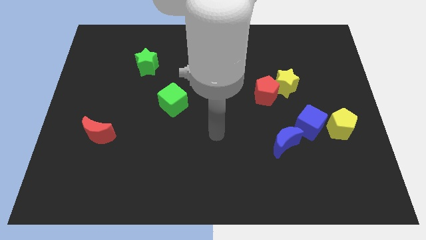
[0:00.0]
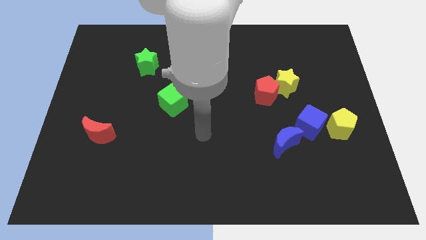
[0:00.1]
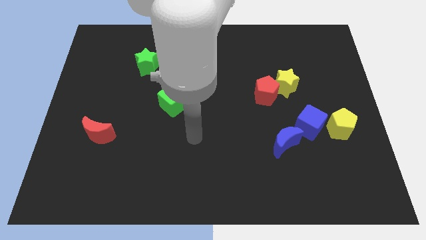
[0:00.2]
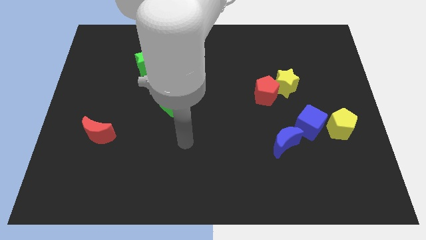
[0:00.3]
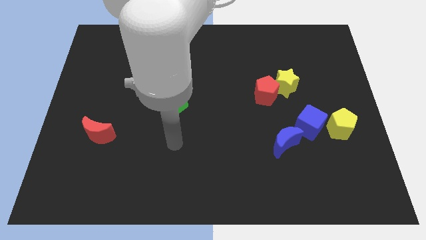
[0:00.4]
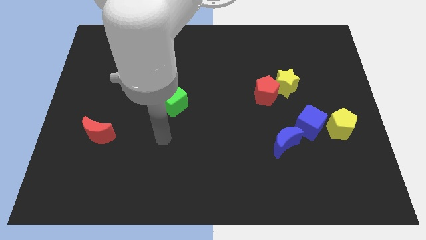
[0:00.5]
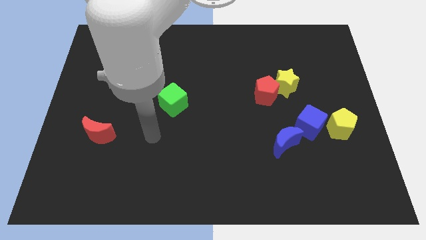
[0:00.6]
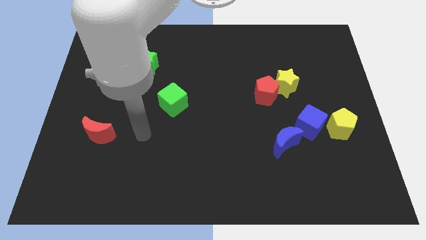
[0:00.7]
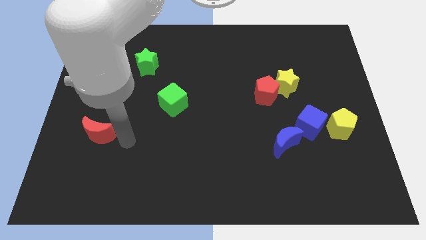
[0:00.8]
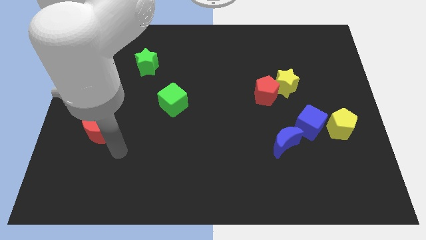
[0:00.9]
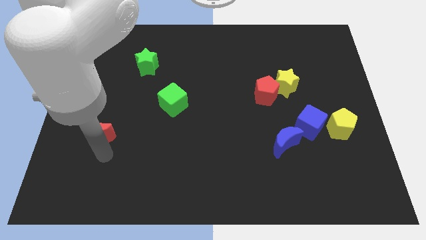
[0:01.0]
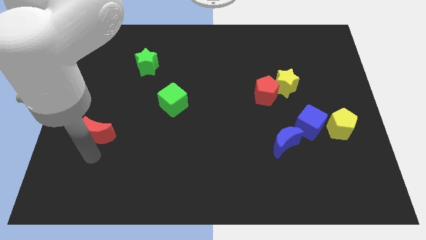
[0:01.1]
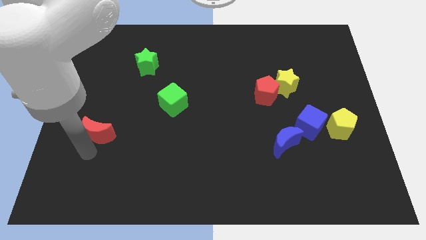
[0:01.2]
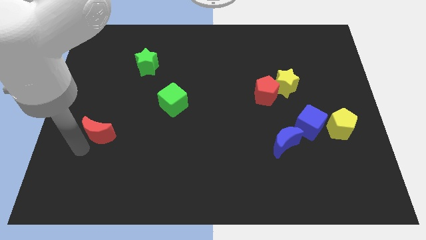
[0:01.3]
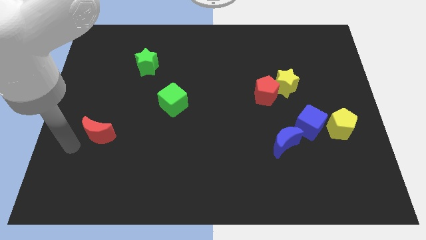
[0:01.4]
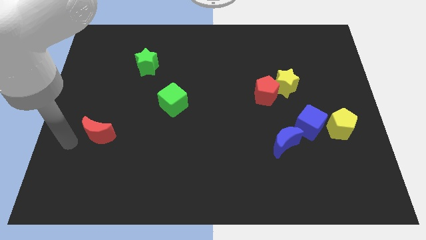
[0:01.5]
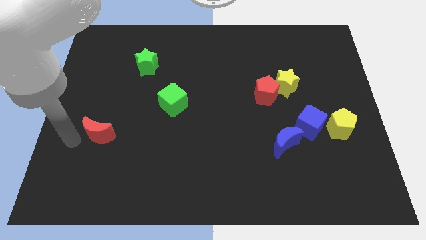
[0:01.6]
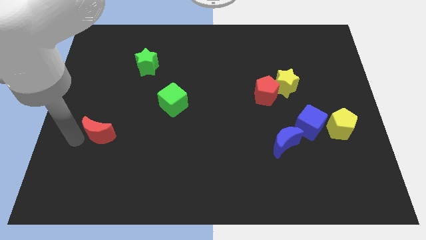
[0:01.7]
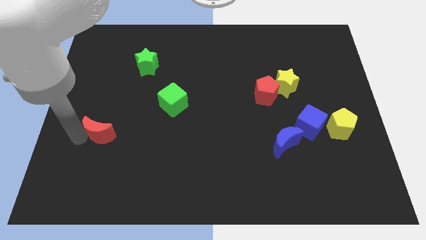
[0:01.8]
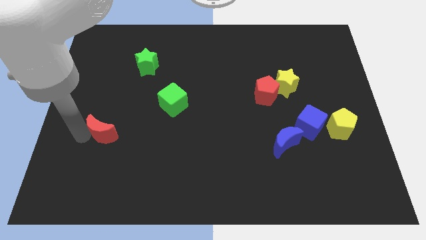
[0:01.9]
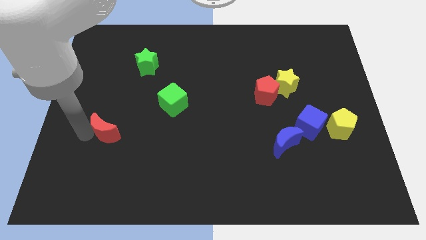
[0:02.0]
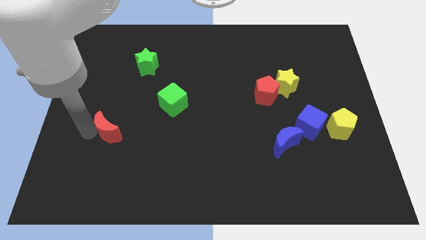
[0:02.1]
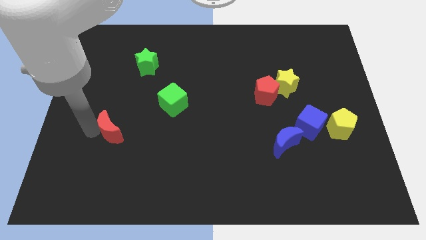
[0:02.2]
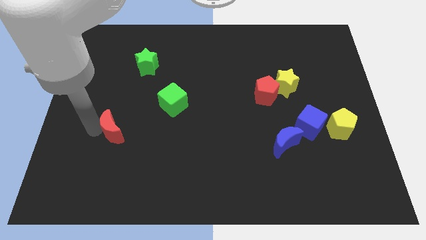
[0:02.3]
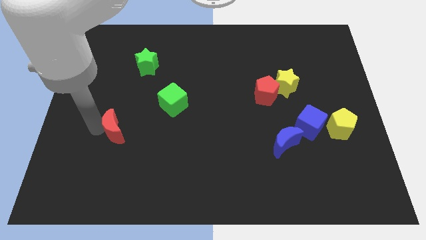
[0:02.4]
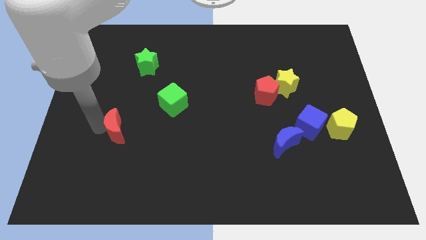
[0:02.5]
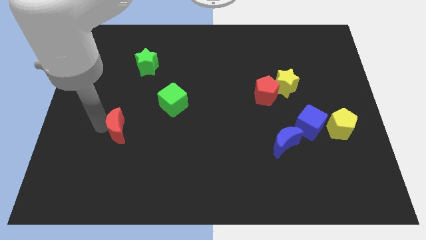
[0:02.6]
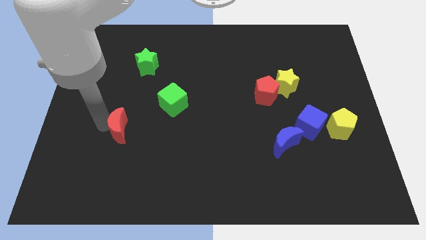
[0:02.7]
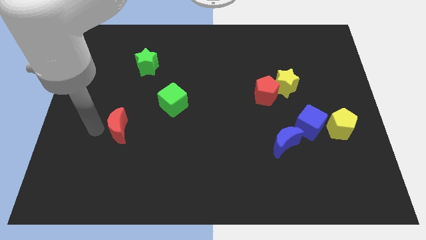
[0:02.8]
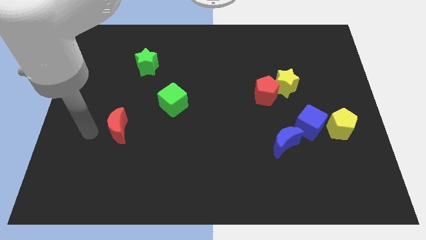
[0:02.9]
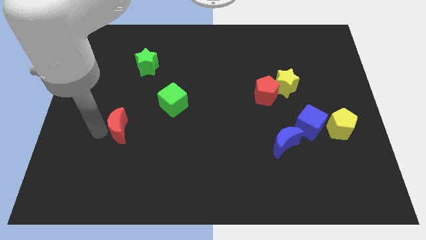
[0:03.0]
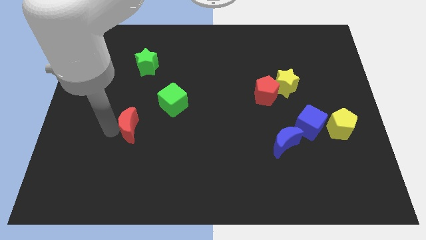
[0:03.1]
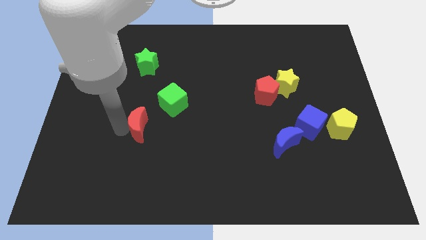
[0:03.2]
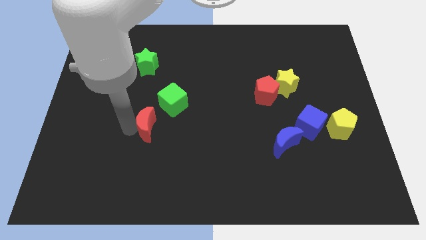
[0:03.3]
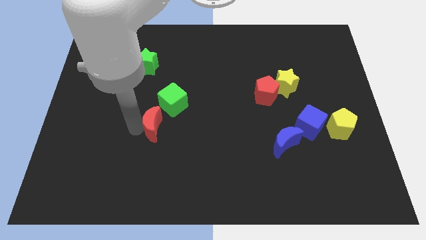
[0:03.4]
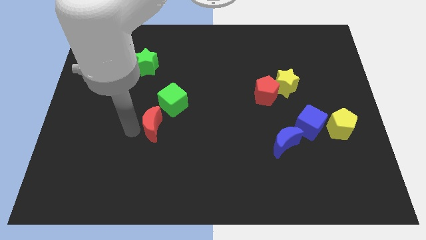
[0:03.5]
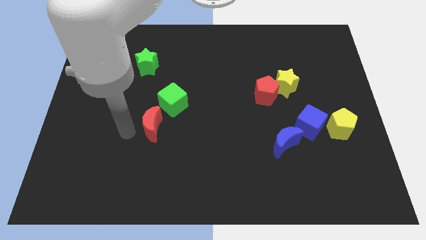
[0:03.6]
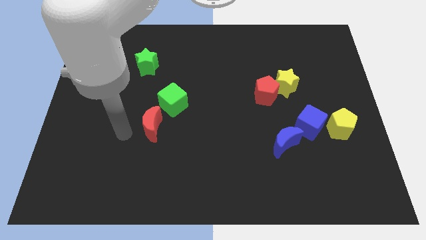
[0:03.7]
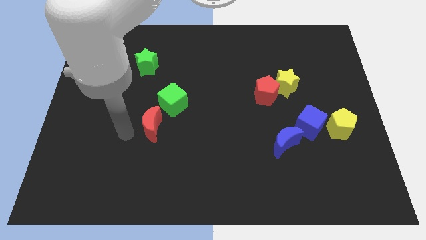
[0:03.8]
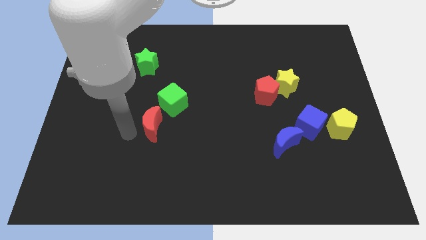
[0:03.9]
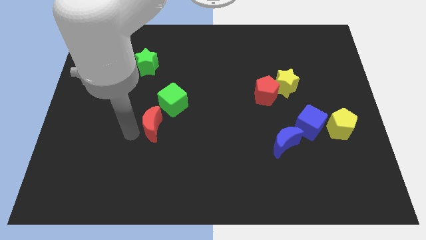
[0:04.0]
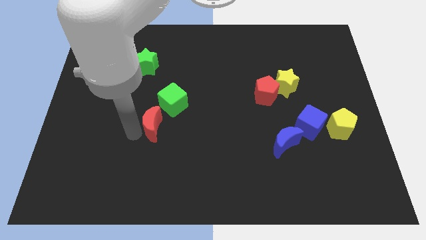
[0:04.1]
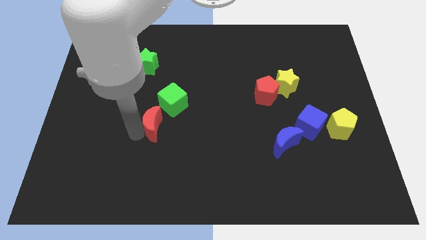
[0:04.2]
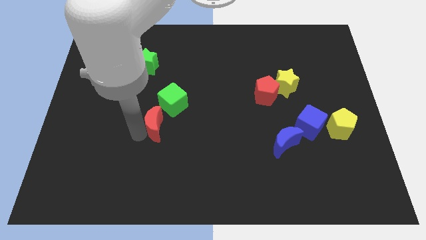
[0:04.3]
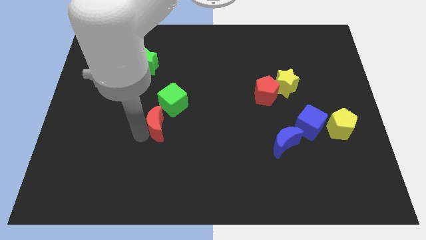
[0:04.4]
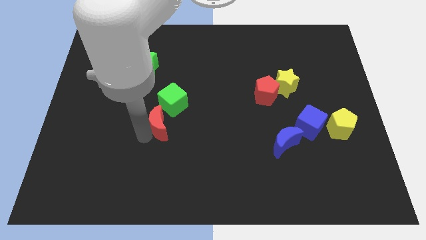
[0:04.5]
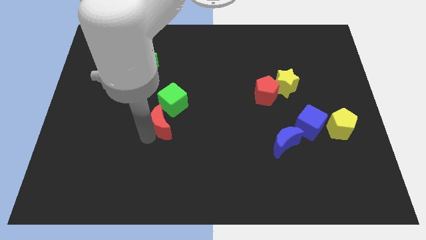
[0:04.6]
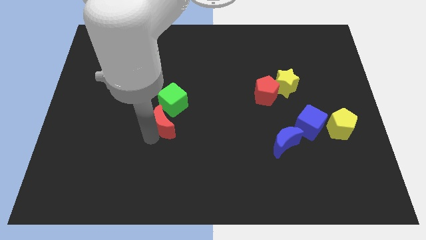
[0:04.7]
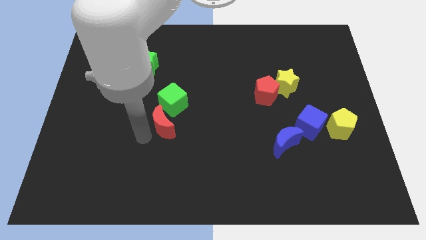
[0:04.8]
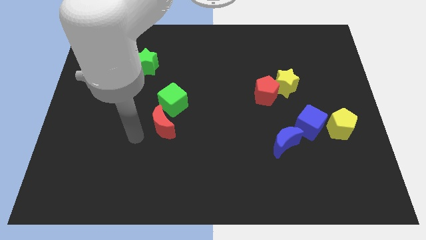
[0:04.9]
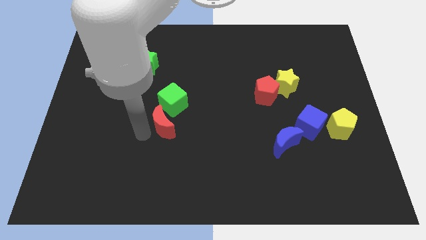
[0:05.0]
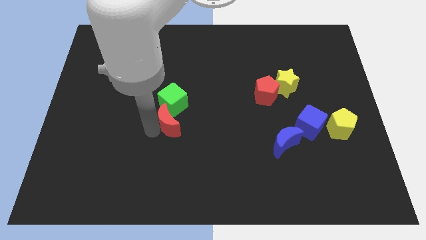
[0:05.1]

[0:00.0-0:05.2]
slide the red moon to the middle of the board

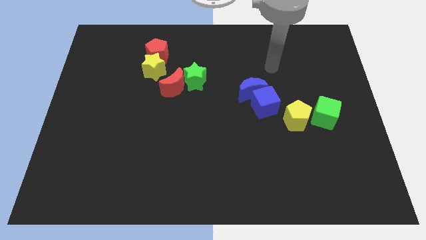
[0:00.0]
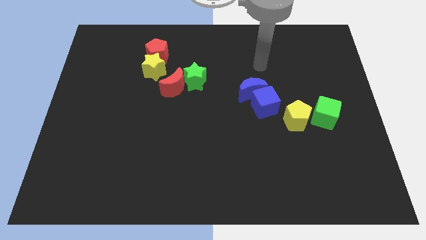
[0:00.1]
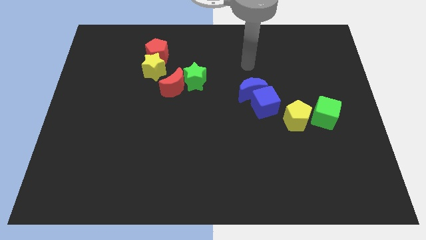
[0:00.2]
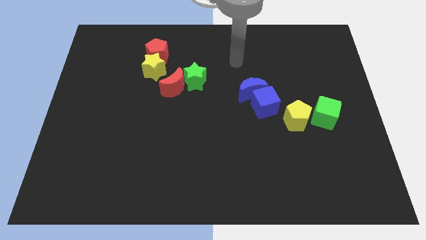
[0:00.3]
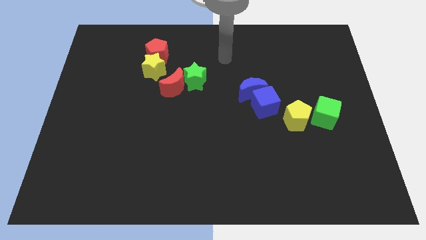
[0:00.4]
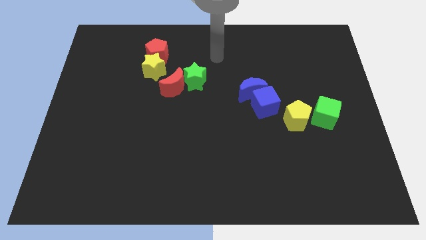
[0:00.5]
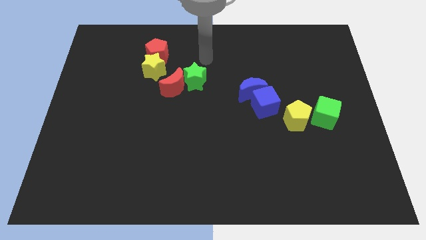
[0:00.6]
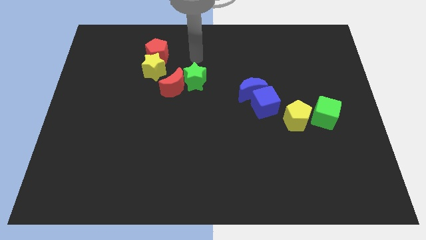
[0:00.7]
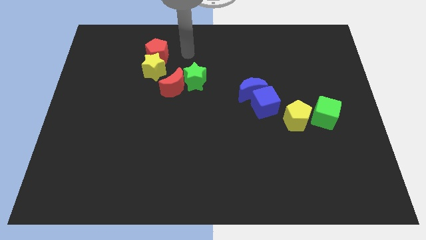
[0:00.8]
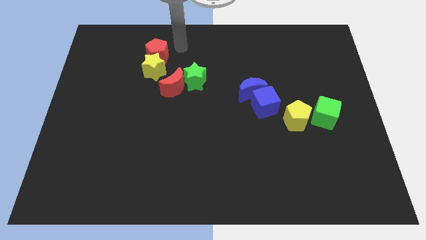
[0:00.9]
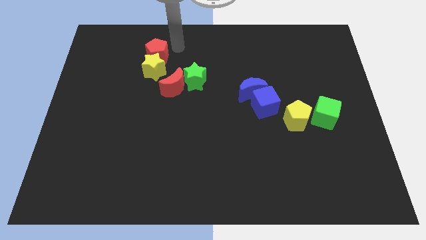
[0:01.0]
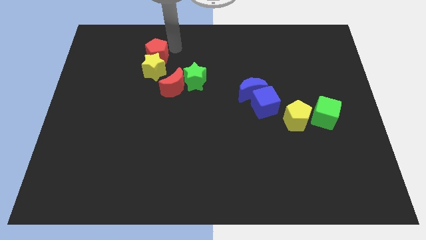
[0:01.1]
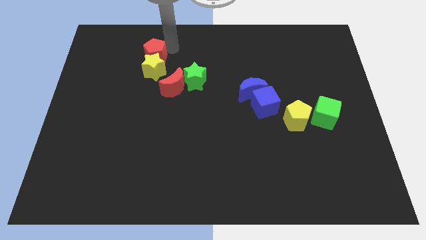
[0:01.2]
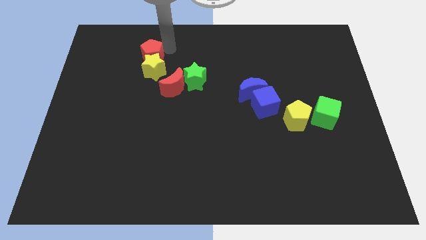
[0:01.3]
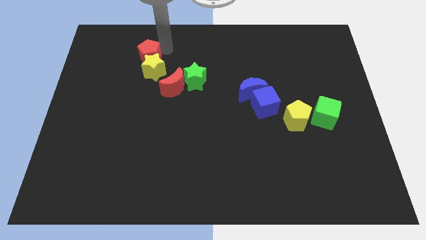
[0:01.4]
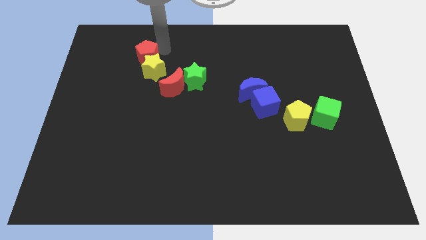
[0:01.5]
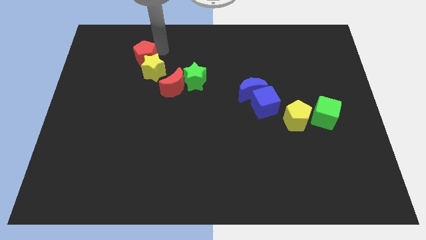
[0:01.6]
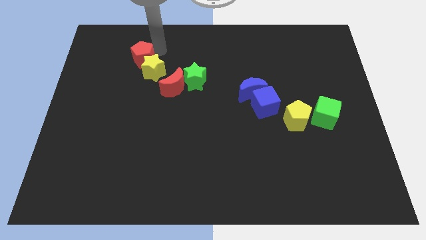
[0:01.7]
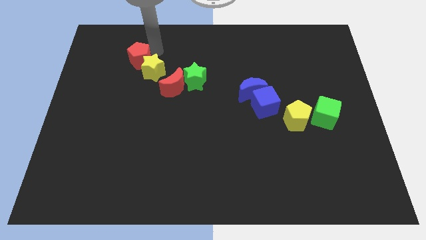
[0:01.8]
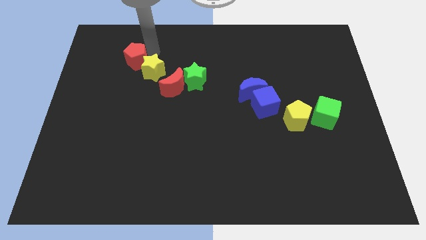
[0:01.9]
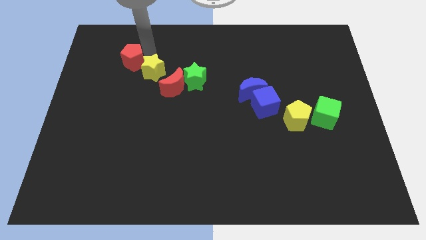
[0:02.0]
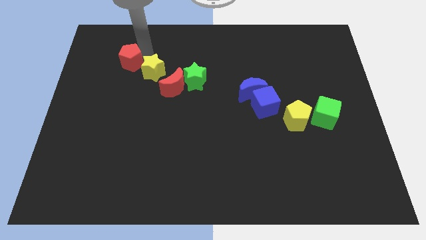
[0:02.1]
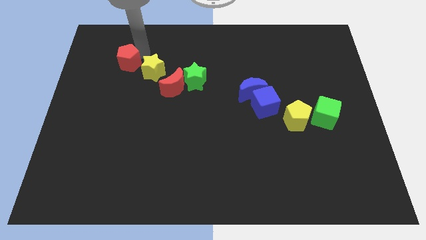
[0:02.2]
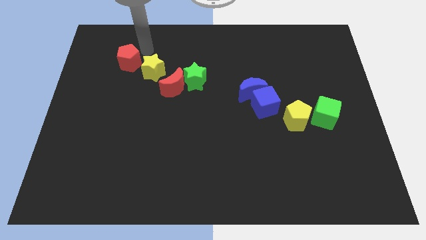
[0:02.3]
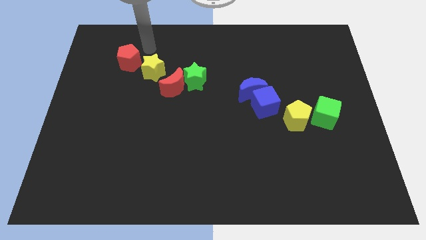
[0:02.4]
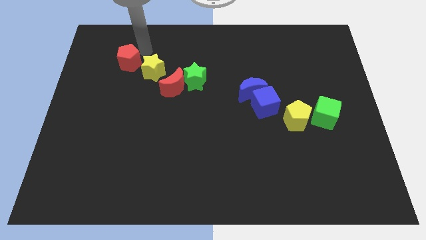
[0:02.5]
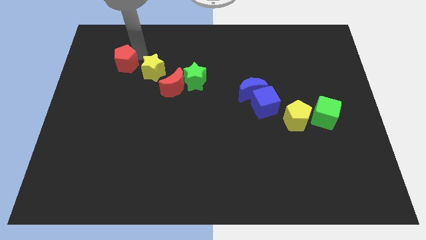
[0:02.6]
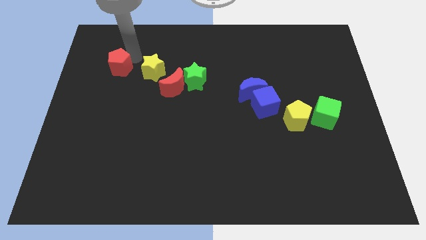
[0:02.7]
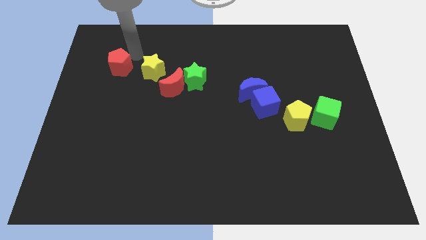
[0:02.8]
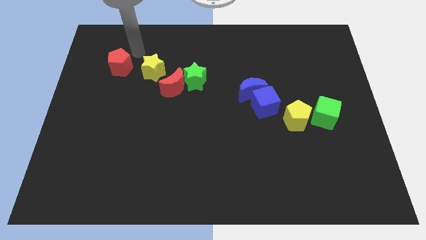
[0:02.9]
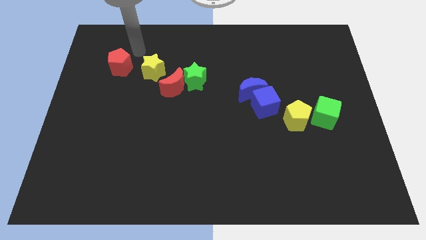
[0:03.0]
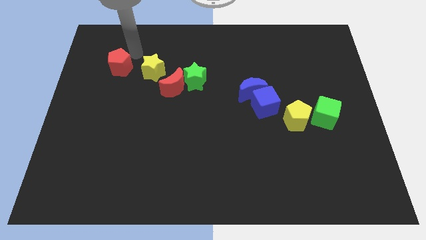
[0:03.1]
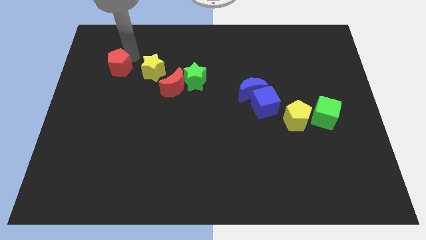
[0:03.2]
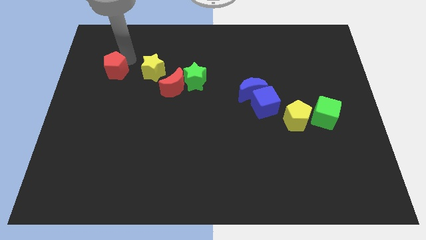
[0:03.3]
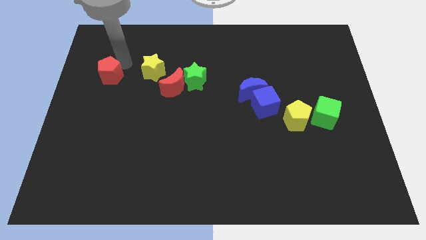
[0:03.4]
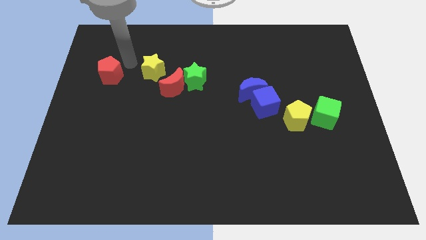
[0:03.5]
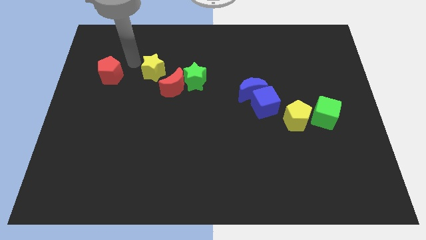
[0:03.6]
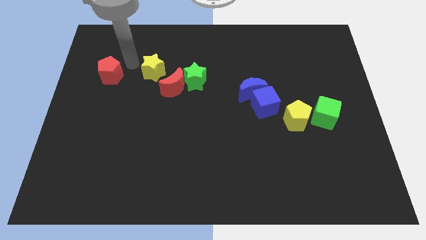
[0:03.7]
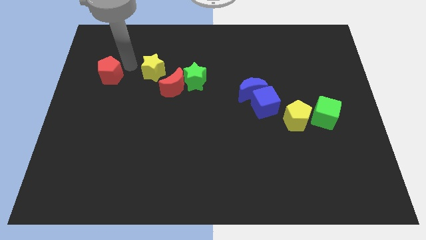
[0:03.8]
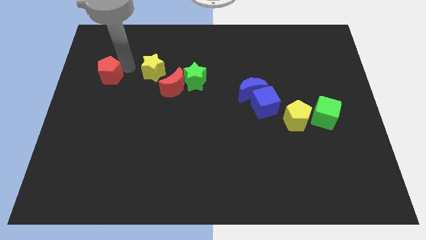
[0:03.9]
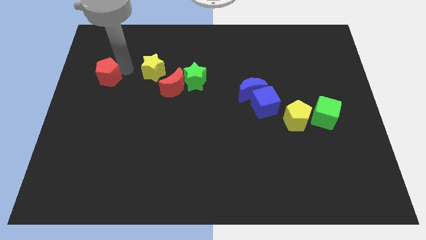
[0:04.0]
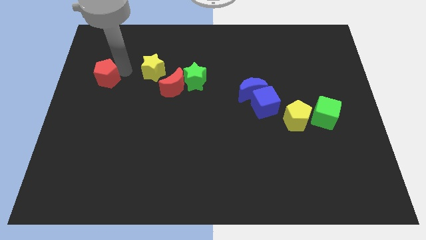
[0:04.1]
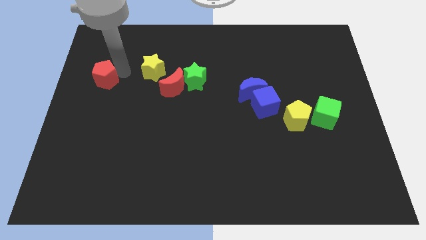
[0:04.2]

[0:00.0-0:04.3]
slide the red pentagon to the left side of the board
